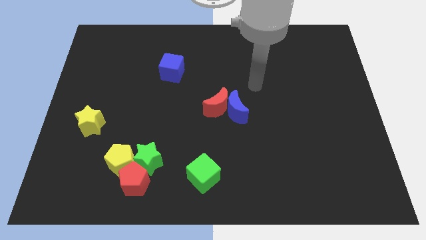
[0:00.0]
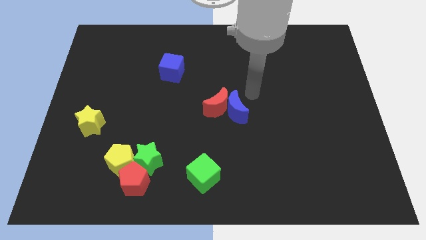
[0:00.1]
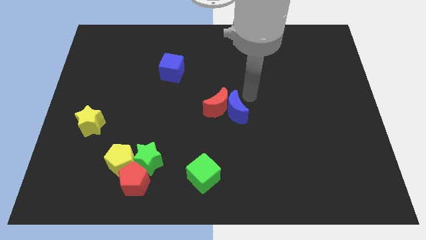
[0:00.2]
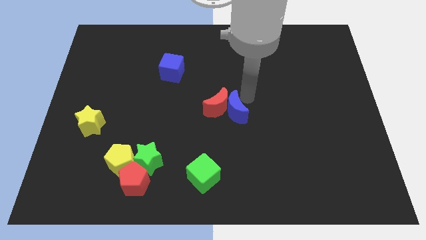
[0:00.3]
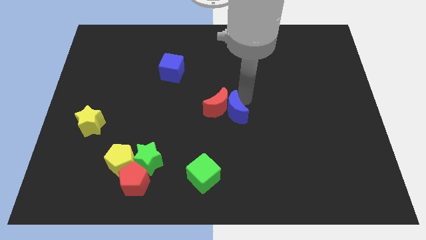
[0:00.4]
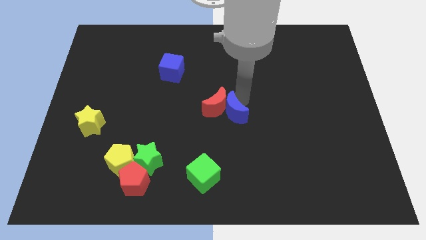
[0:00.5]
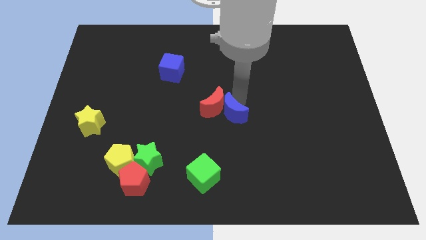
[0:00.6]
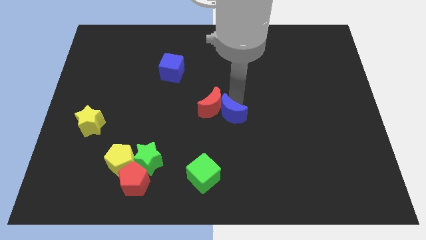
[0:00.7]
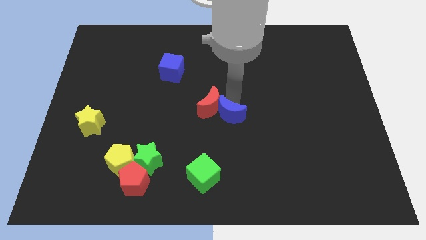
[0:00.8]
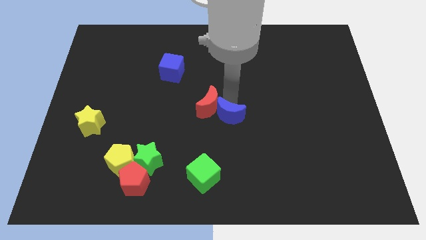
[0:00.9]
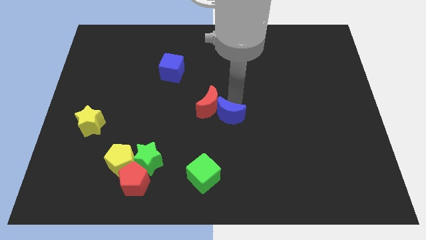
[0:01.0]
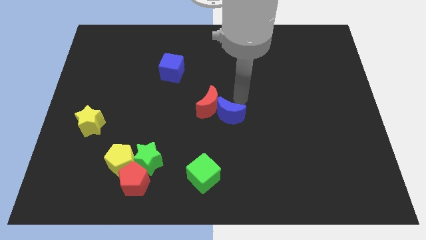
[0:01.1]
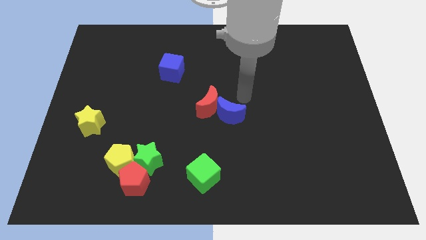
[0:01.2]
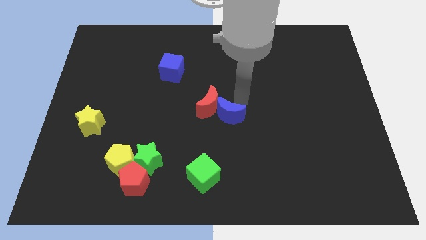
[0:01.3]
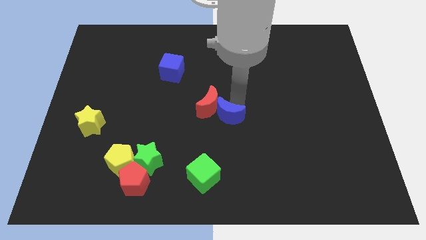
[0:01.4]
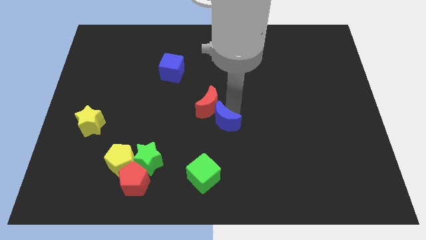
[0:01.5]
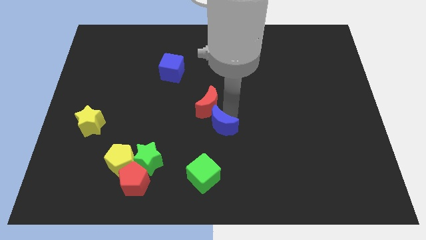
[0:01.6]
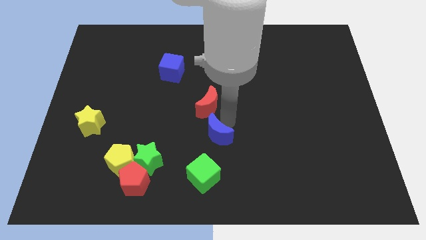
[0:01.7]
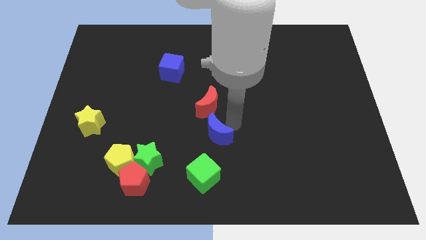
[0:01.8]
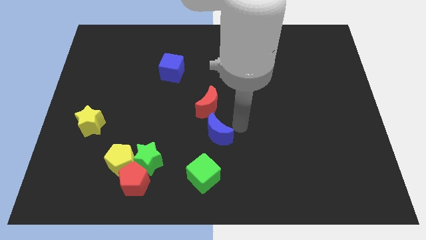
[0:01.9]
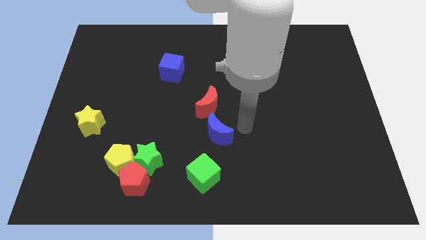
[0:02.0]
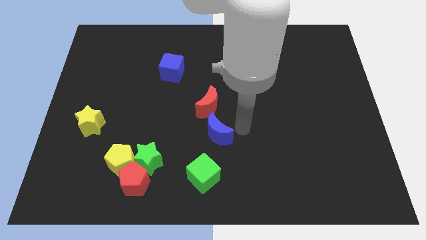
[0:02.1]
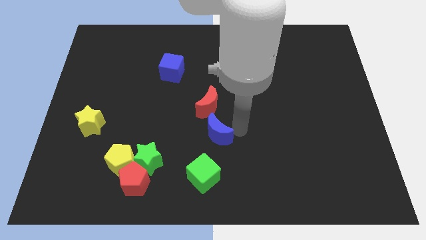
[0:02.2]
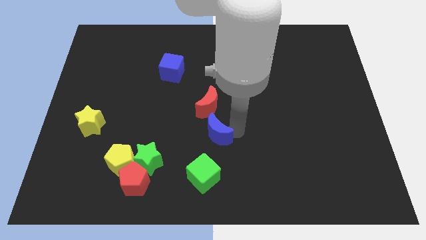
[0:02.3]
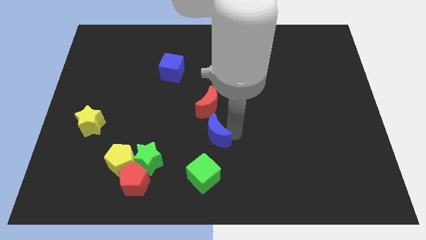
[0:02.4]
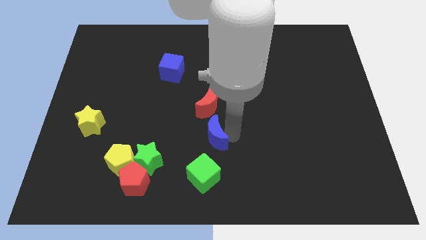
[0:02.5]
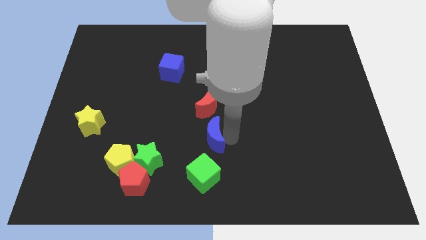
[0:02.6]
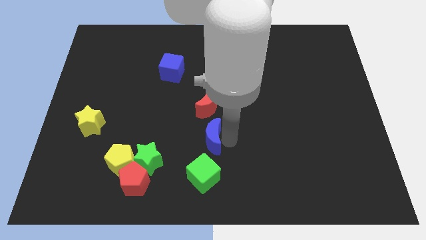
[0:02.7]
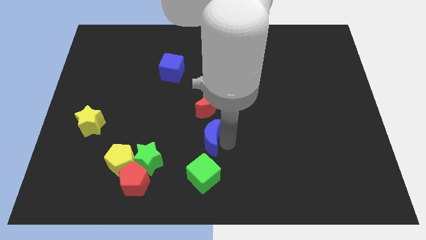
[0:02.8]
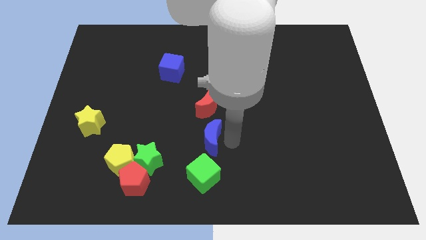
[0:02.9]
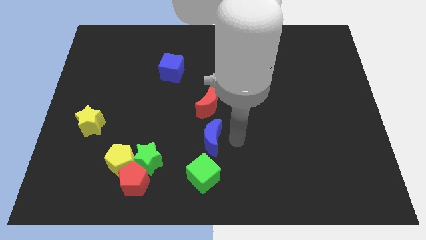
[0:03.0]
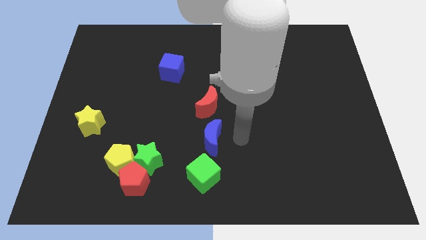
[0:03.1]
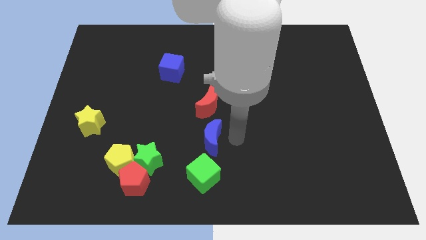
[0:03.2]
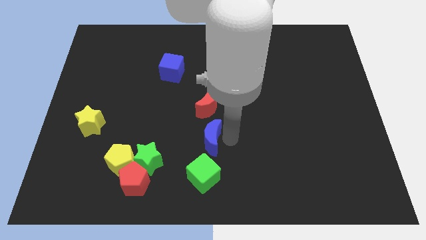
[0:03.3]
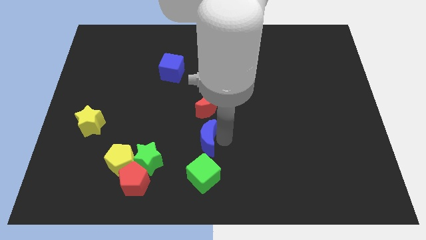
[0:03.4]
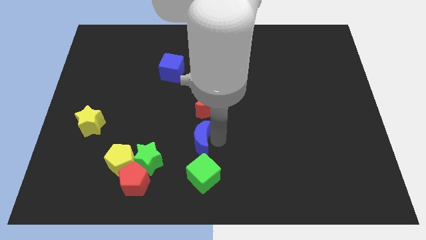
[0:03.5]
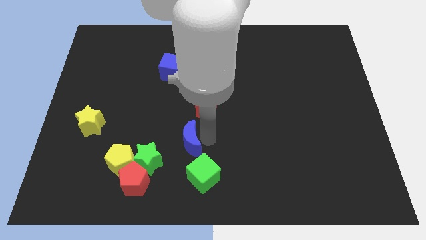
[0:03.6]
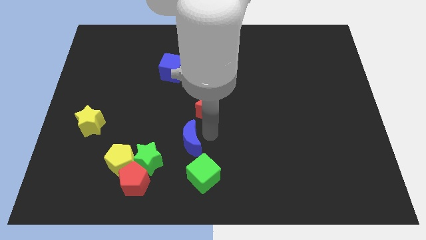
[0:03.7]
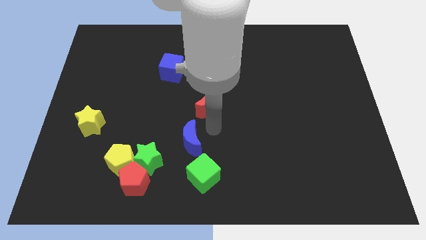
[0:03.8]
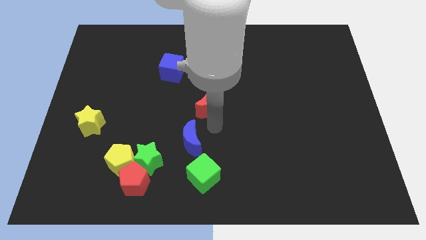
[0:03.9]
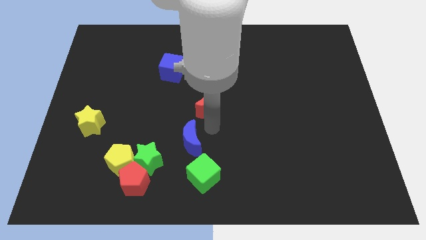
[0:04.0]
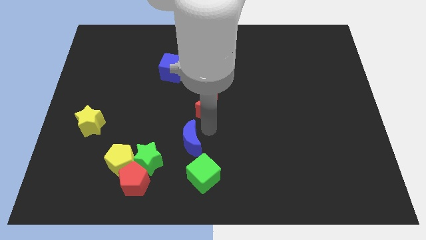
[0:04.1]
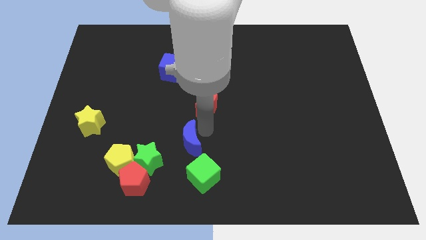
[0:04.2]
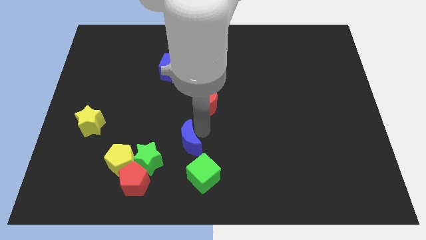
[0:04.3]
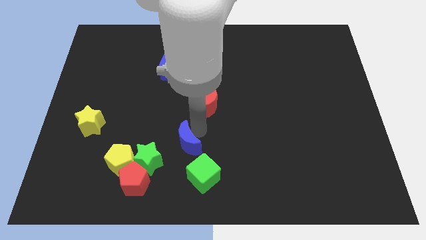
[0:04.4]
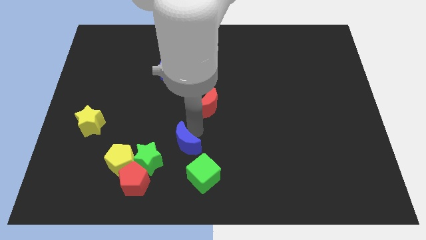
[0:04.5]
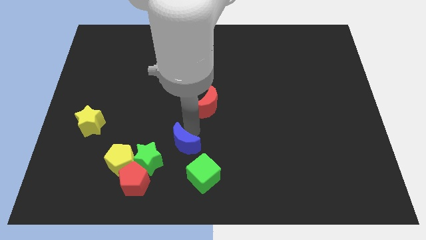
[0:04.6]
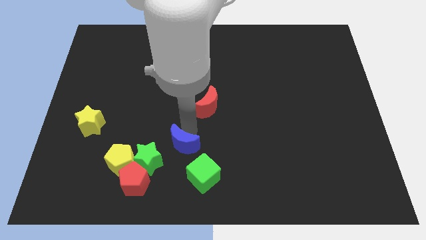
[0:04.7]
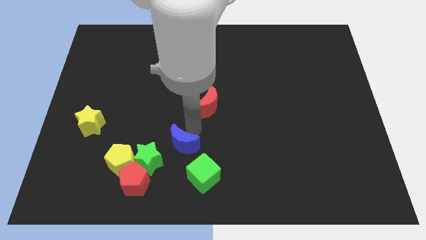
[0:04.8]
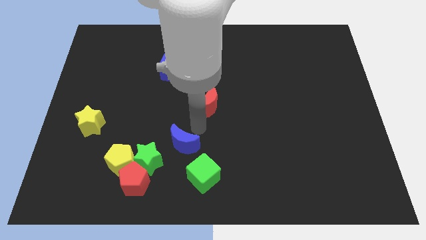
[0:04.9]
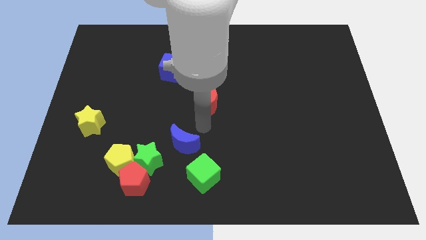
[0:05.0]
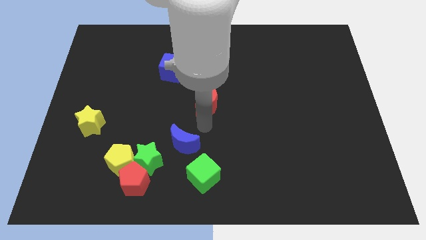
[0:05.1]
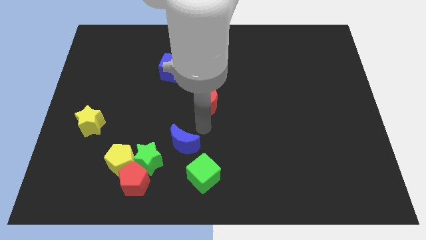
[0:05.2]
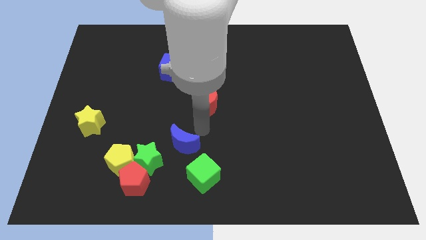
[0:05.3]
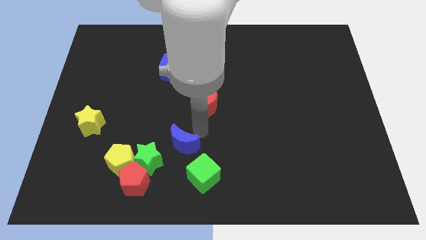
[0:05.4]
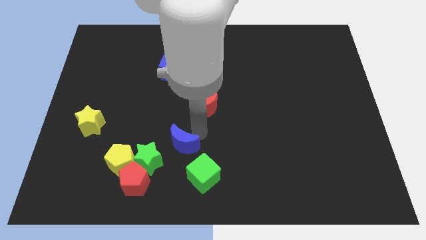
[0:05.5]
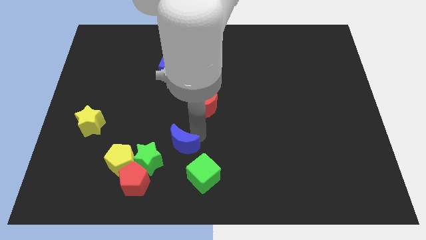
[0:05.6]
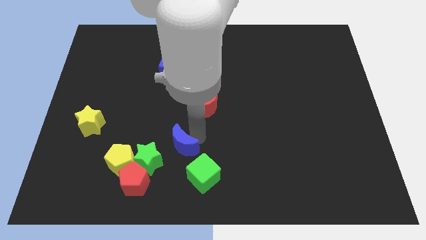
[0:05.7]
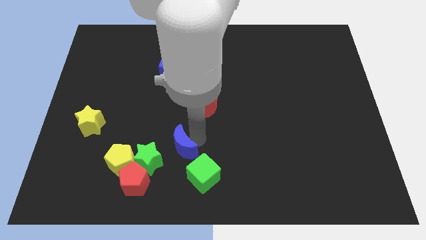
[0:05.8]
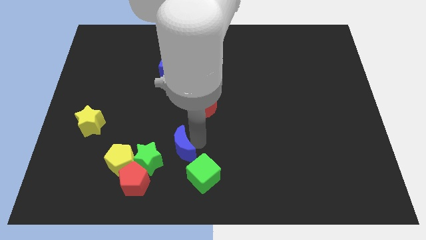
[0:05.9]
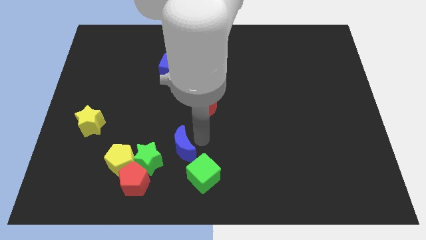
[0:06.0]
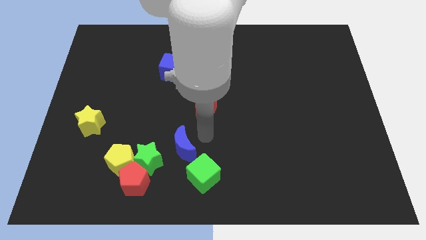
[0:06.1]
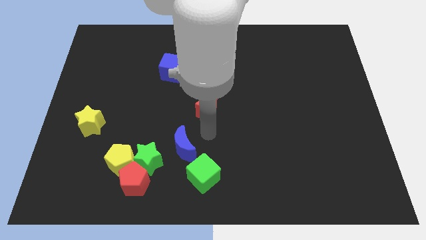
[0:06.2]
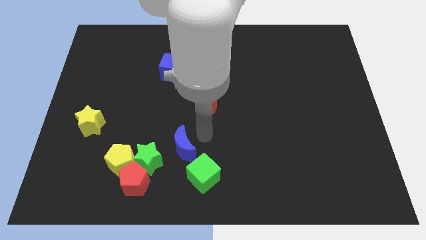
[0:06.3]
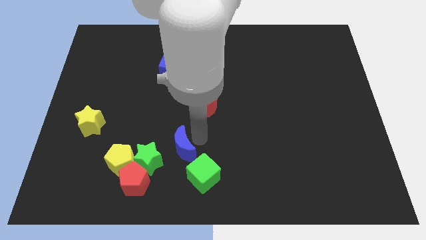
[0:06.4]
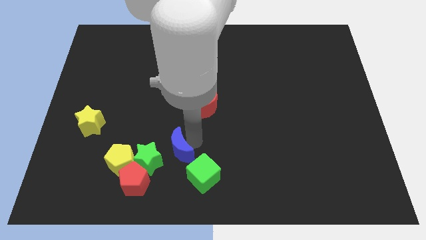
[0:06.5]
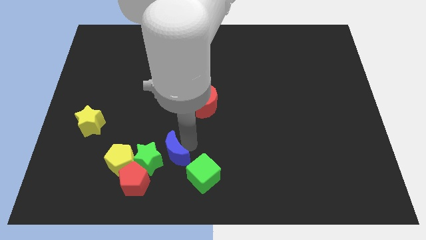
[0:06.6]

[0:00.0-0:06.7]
push the blue moon towards the green star

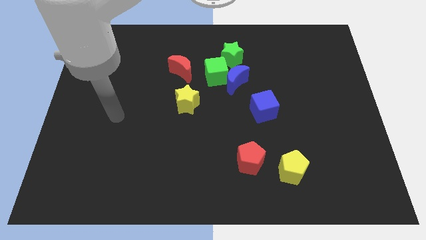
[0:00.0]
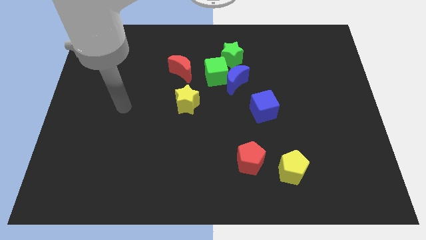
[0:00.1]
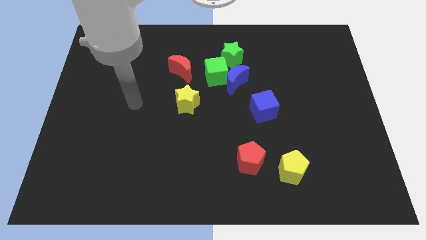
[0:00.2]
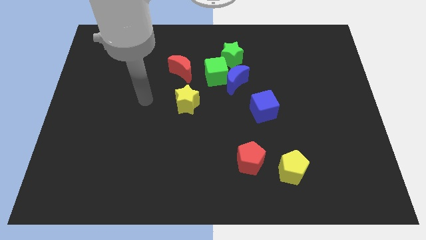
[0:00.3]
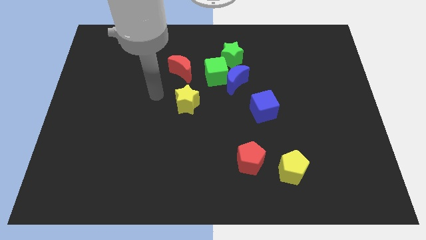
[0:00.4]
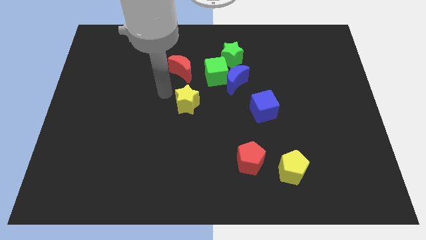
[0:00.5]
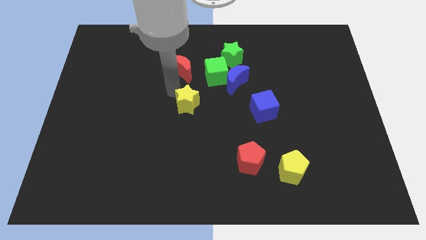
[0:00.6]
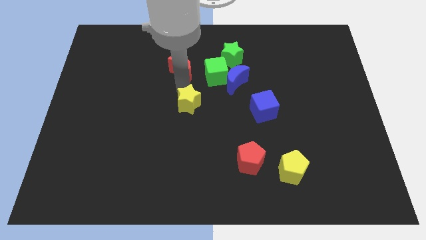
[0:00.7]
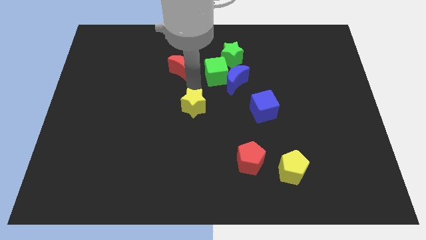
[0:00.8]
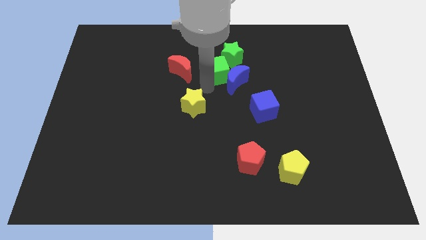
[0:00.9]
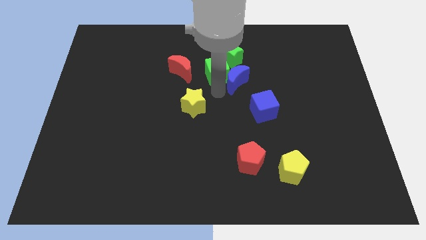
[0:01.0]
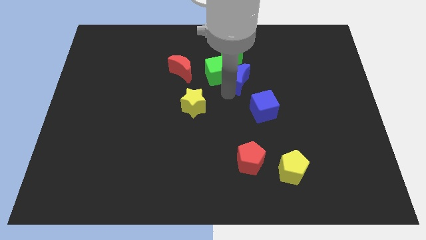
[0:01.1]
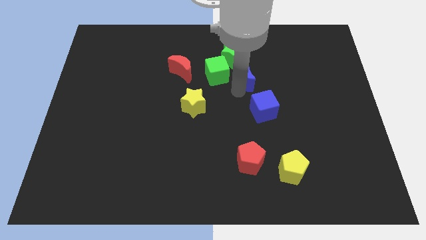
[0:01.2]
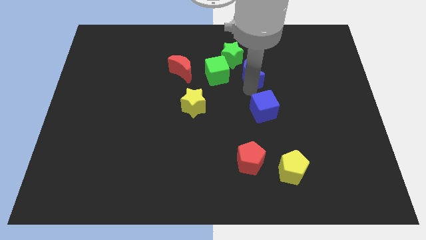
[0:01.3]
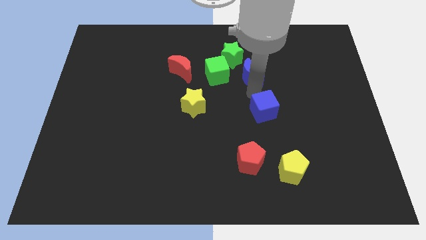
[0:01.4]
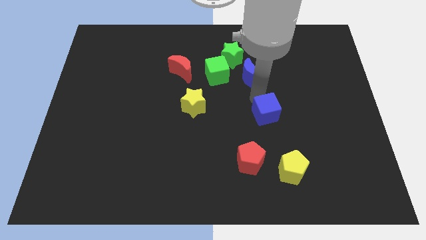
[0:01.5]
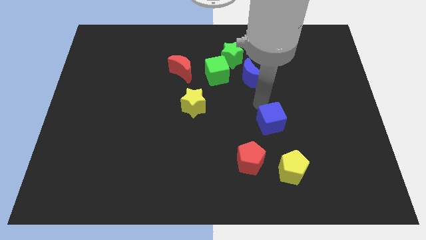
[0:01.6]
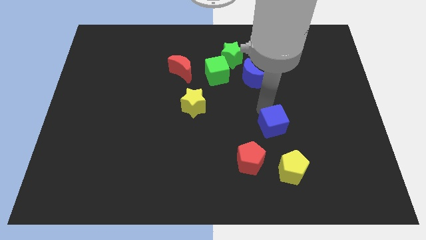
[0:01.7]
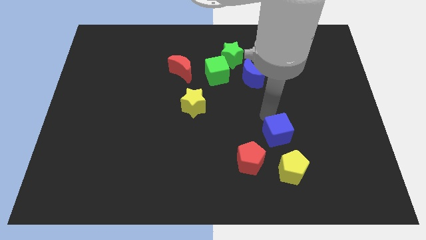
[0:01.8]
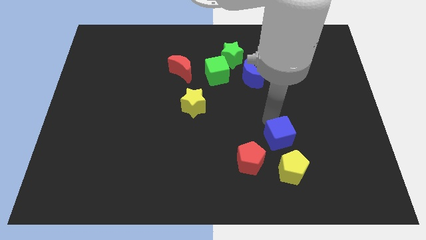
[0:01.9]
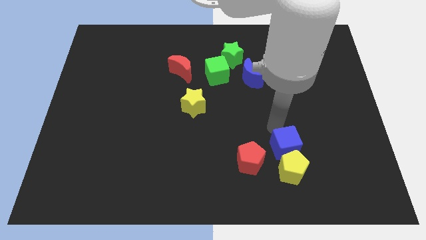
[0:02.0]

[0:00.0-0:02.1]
move the blue cube to the yellow pentagon
